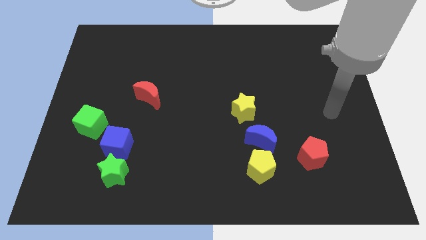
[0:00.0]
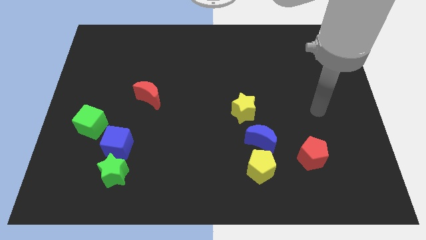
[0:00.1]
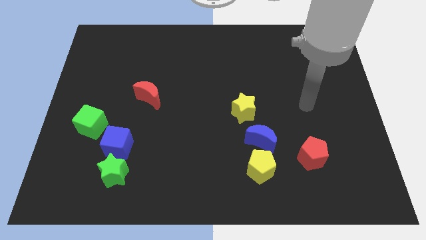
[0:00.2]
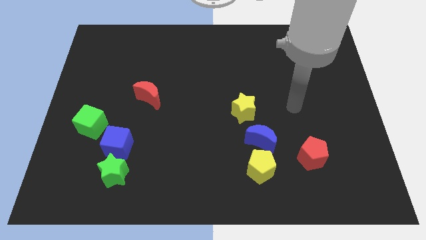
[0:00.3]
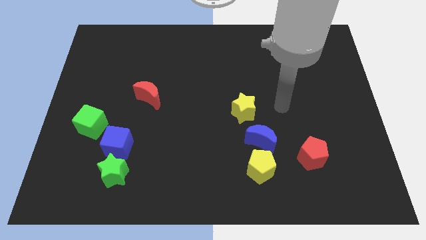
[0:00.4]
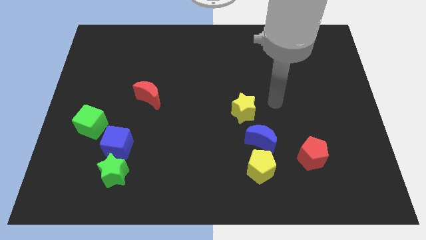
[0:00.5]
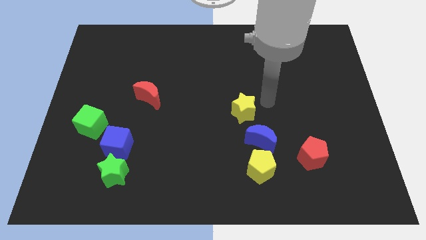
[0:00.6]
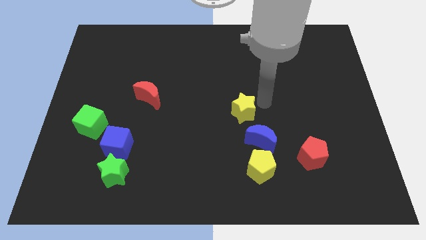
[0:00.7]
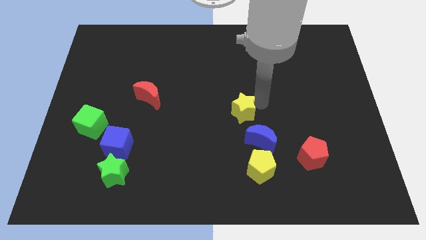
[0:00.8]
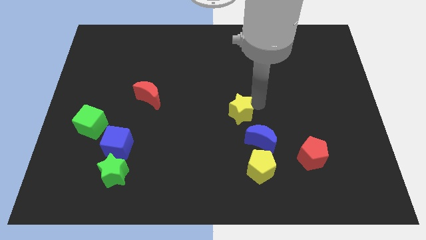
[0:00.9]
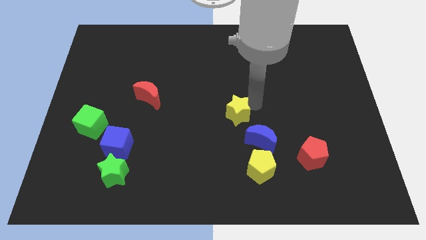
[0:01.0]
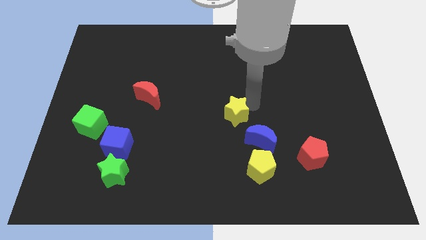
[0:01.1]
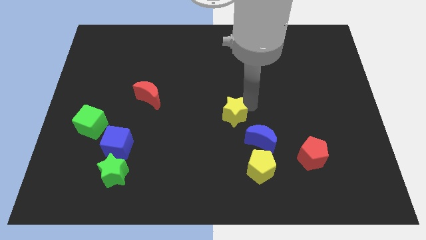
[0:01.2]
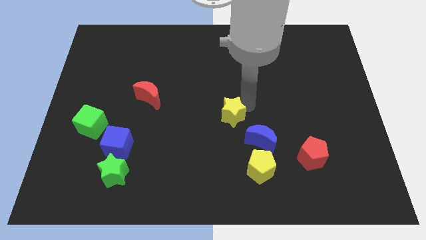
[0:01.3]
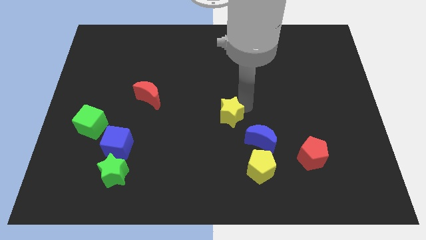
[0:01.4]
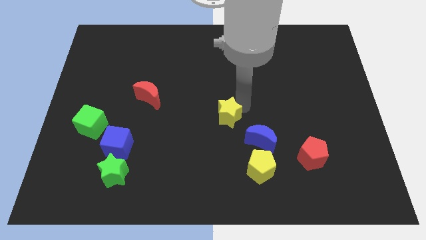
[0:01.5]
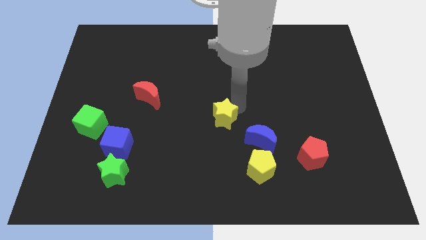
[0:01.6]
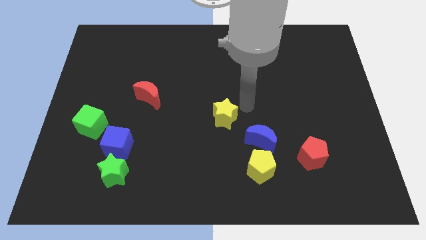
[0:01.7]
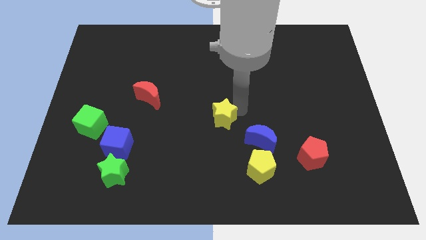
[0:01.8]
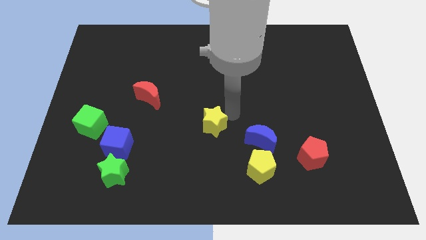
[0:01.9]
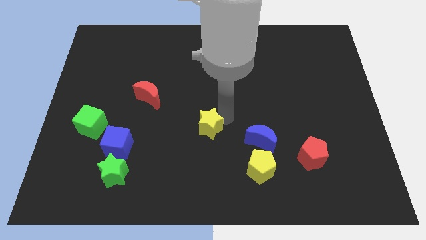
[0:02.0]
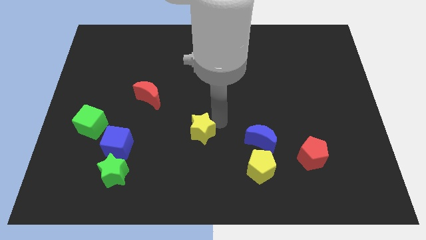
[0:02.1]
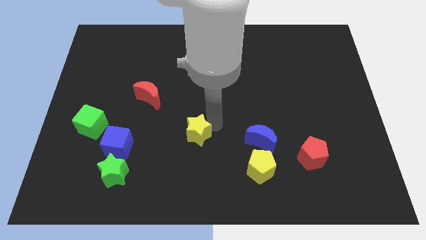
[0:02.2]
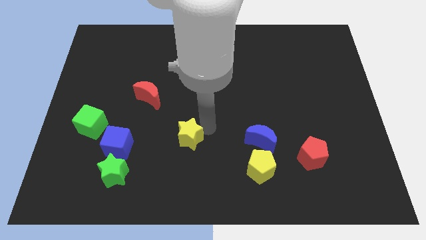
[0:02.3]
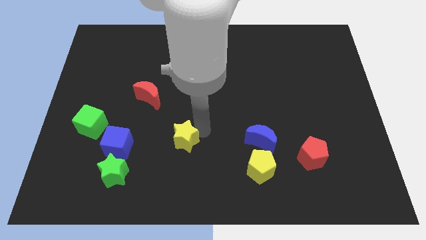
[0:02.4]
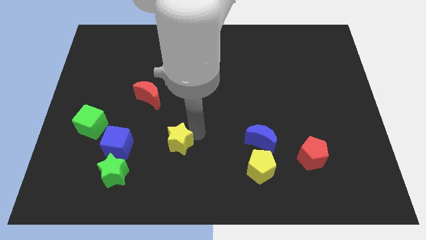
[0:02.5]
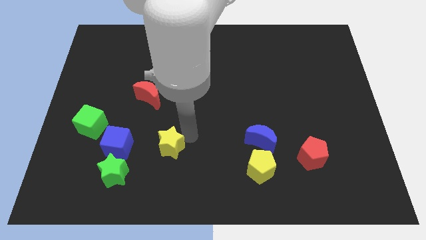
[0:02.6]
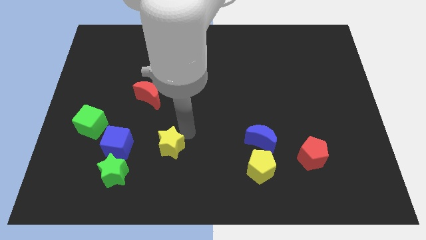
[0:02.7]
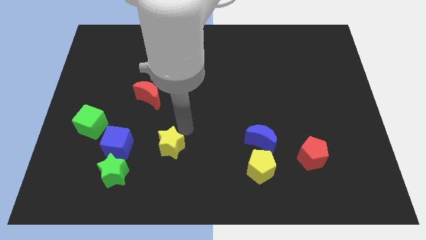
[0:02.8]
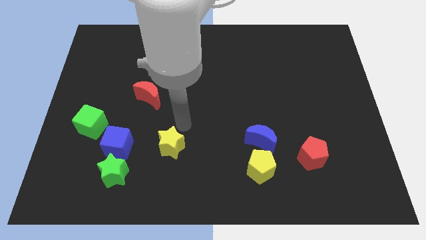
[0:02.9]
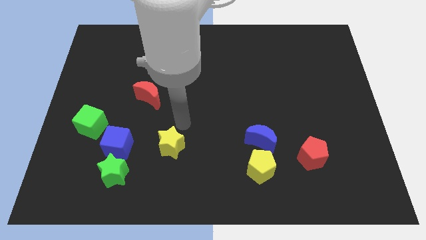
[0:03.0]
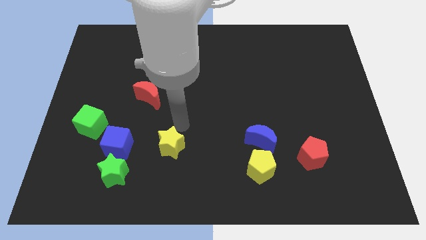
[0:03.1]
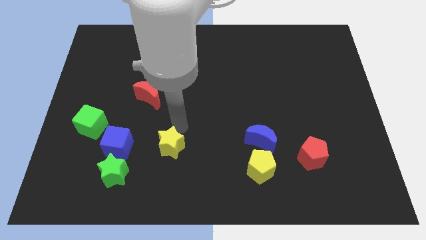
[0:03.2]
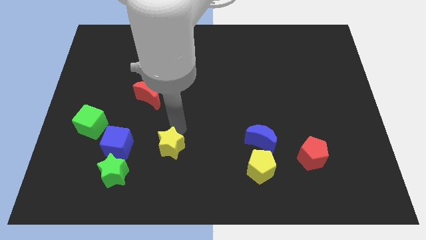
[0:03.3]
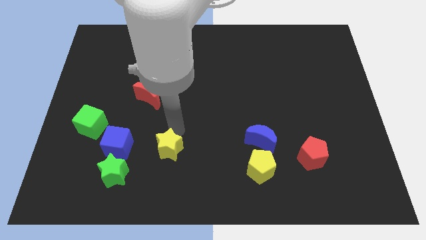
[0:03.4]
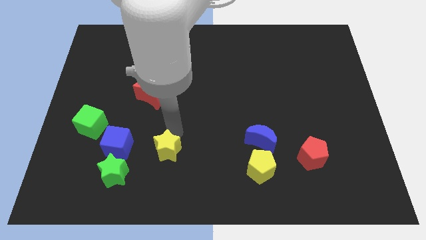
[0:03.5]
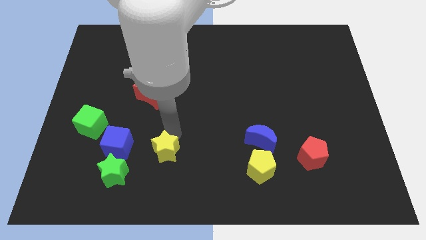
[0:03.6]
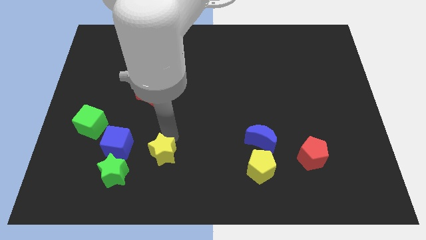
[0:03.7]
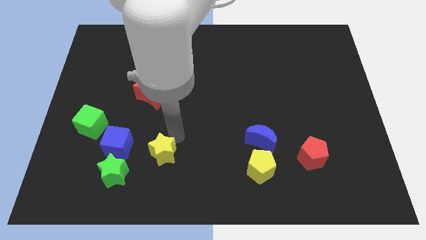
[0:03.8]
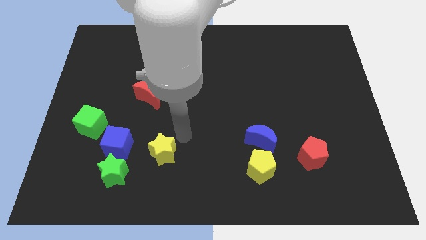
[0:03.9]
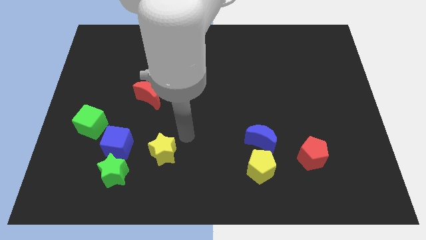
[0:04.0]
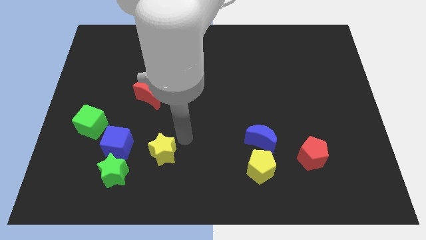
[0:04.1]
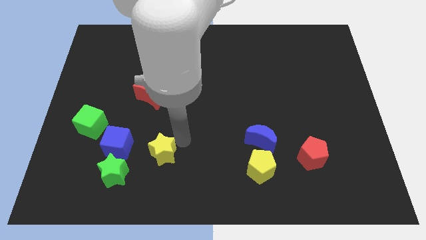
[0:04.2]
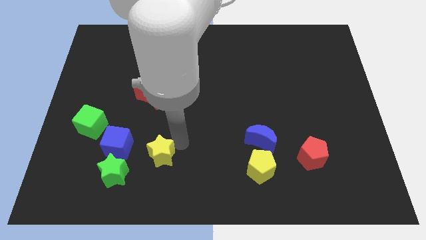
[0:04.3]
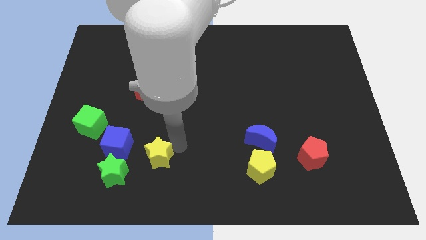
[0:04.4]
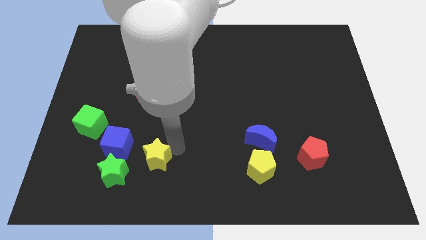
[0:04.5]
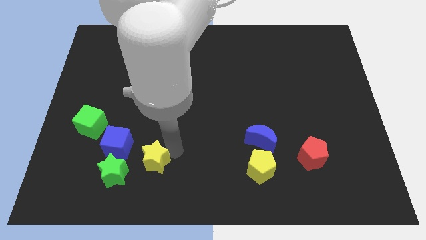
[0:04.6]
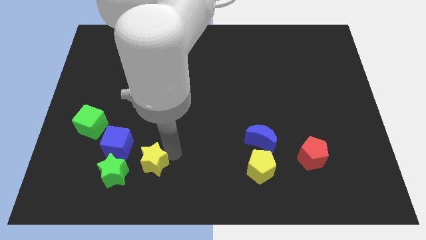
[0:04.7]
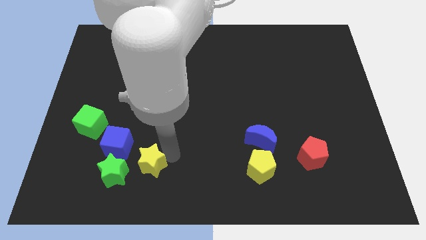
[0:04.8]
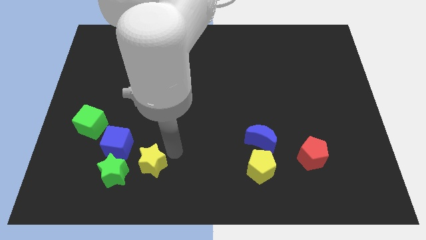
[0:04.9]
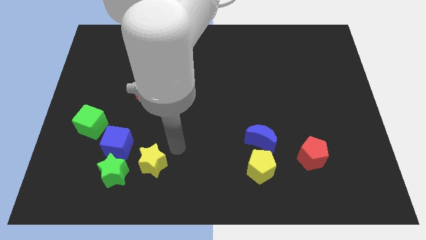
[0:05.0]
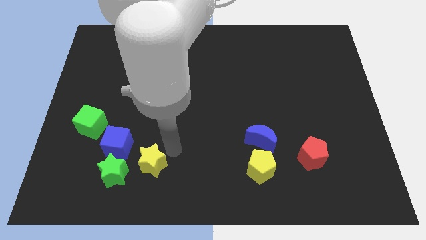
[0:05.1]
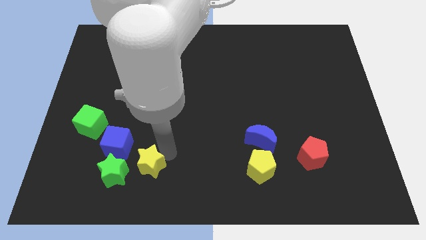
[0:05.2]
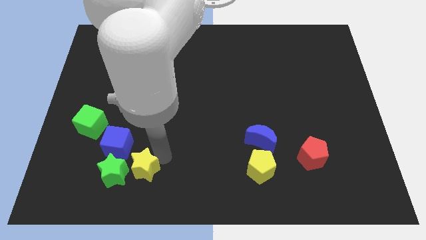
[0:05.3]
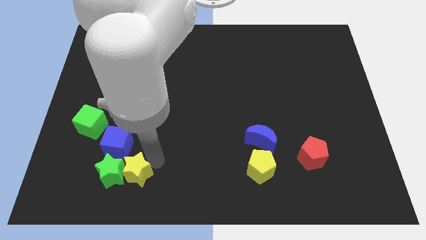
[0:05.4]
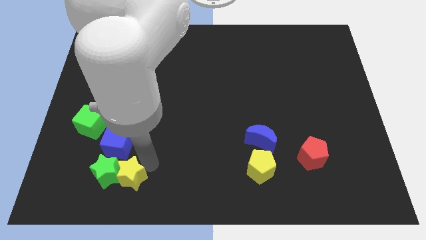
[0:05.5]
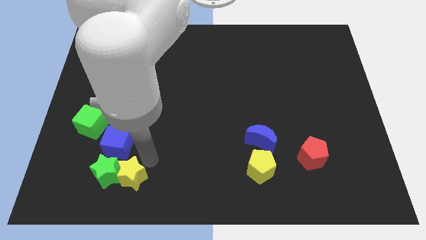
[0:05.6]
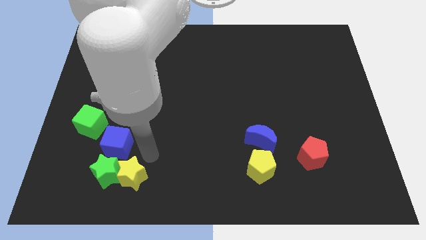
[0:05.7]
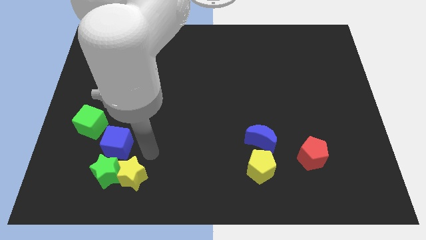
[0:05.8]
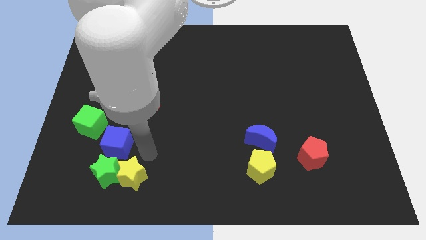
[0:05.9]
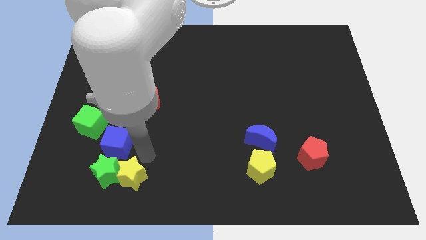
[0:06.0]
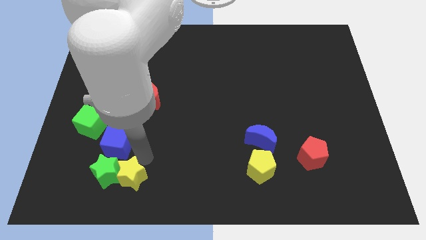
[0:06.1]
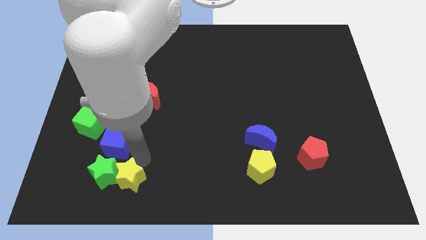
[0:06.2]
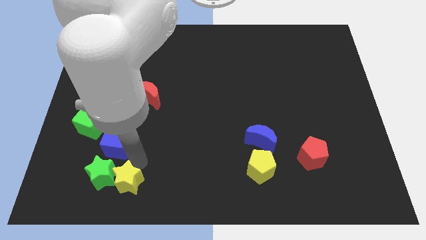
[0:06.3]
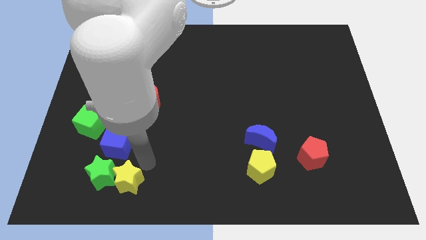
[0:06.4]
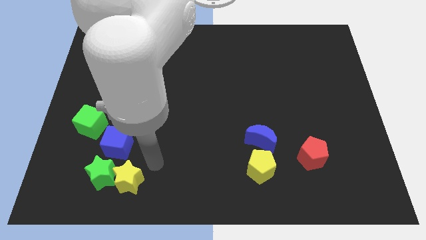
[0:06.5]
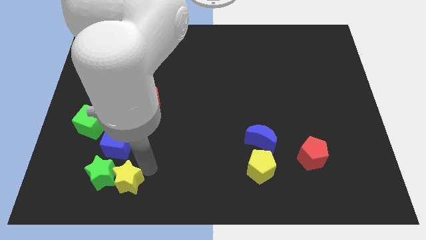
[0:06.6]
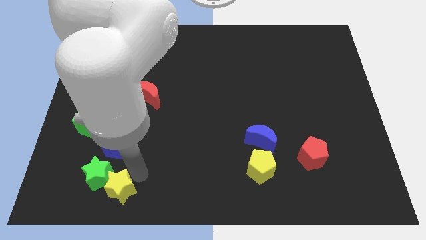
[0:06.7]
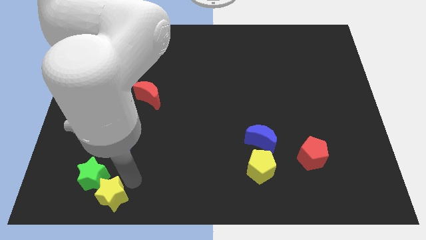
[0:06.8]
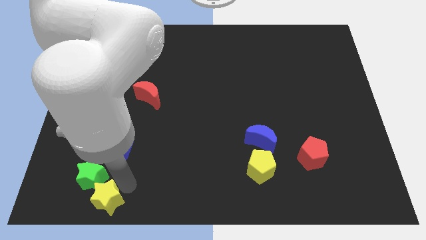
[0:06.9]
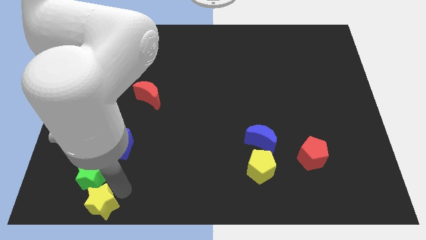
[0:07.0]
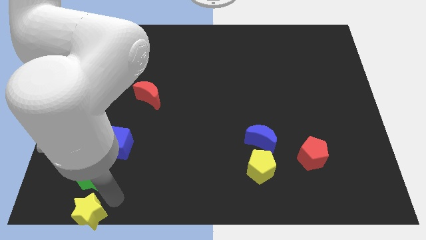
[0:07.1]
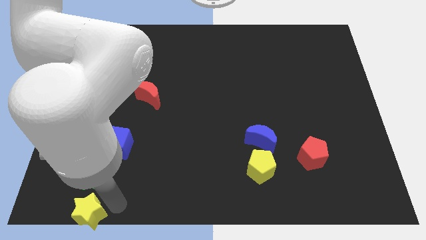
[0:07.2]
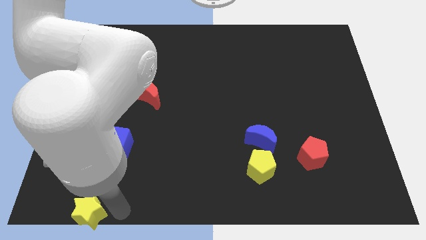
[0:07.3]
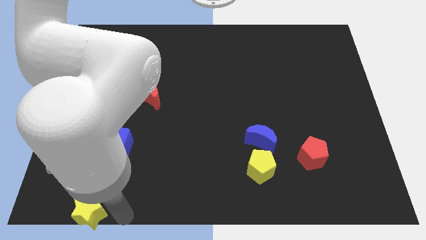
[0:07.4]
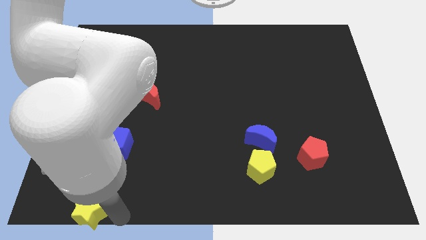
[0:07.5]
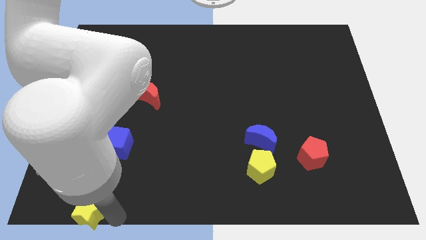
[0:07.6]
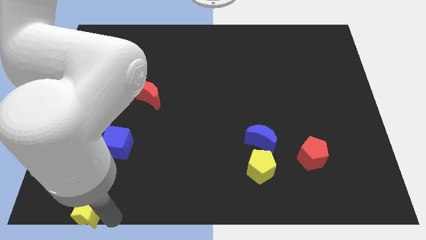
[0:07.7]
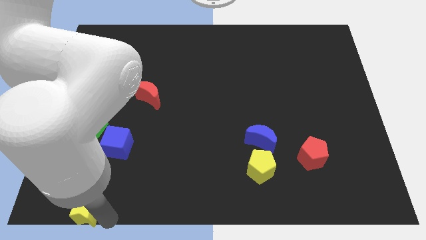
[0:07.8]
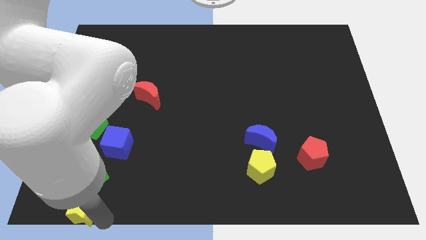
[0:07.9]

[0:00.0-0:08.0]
push the yellow star to the bottom left
